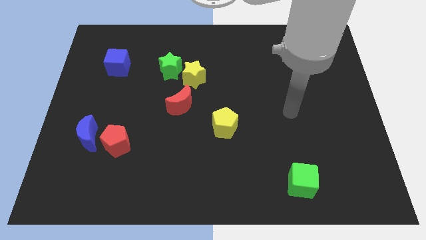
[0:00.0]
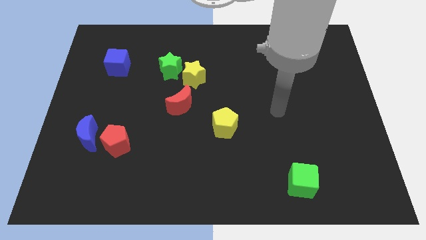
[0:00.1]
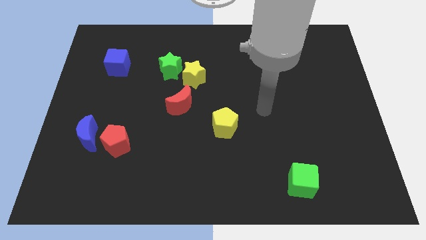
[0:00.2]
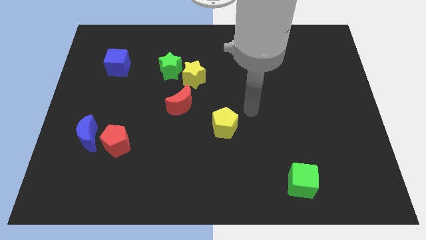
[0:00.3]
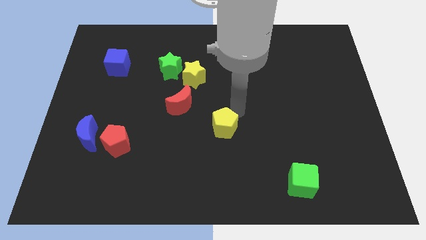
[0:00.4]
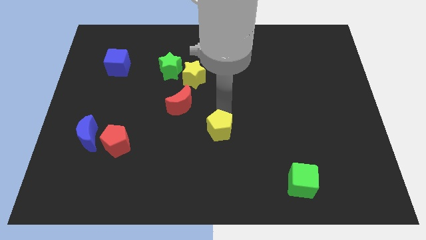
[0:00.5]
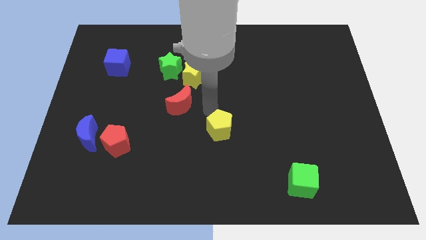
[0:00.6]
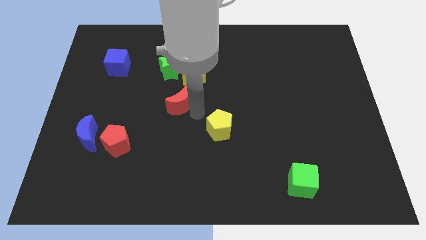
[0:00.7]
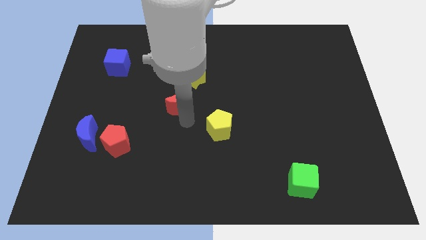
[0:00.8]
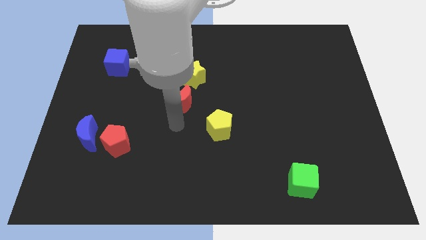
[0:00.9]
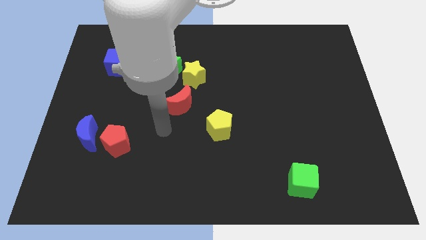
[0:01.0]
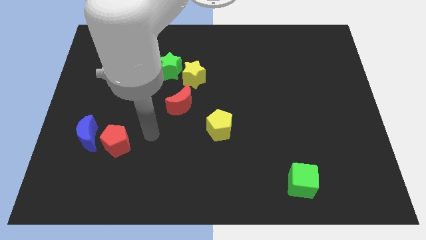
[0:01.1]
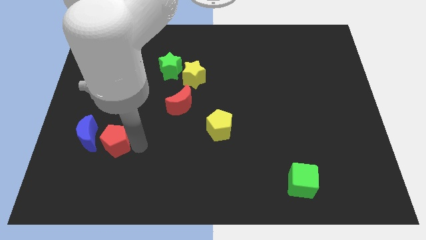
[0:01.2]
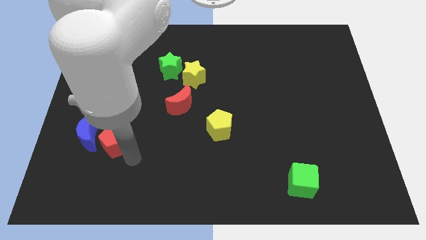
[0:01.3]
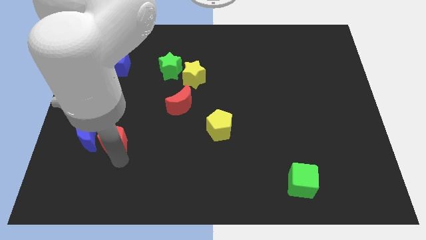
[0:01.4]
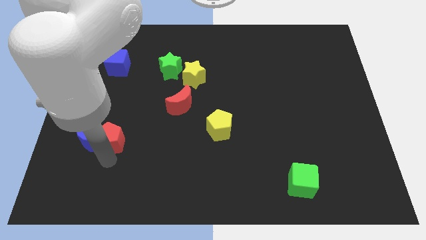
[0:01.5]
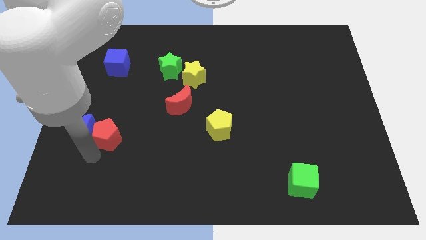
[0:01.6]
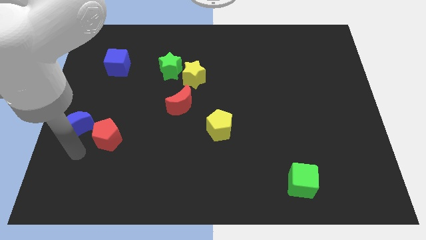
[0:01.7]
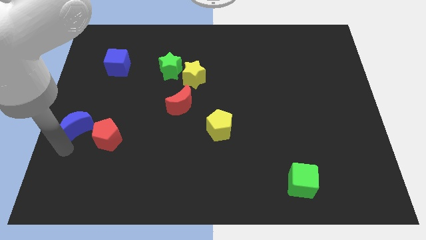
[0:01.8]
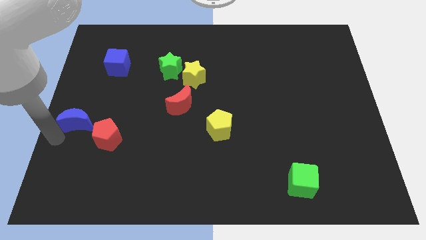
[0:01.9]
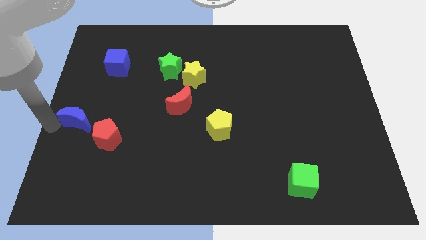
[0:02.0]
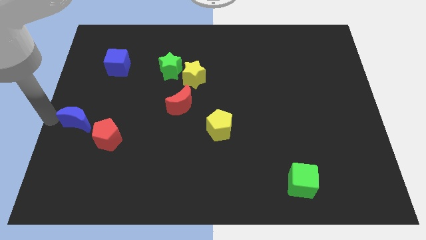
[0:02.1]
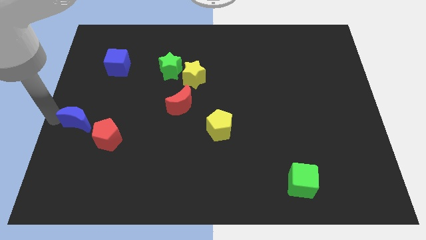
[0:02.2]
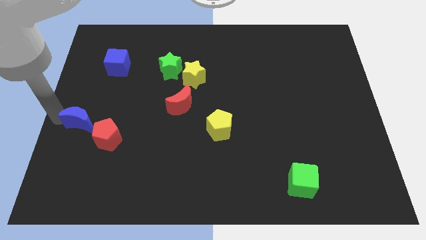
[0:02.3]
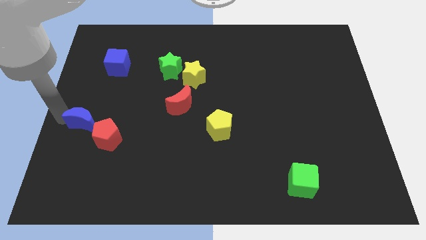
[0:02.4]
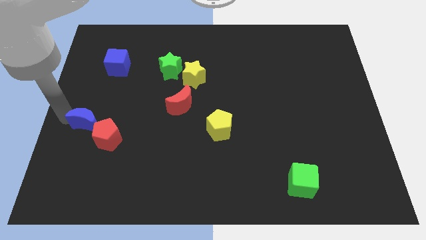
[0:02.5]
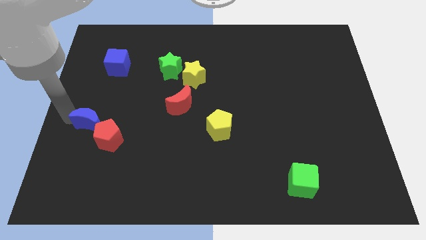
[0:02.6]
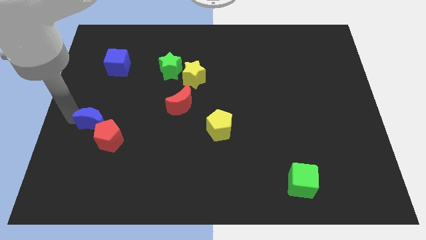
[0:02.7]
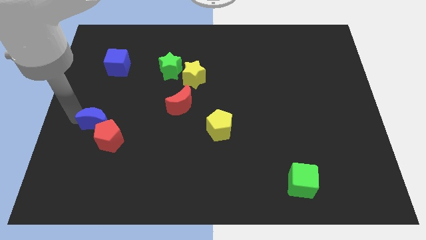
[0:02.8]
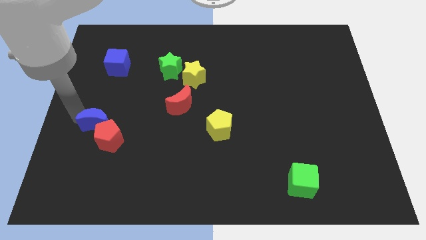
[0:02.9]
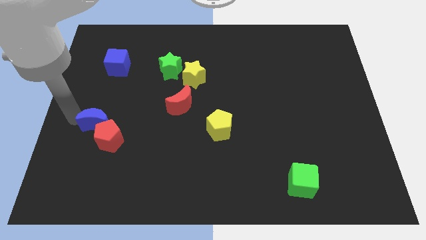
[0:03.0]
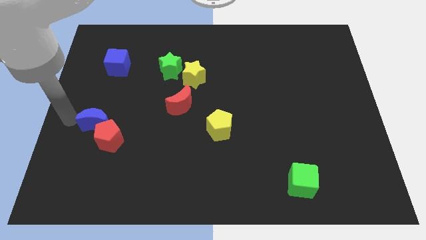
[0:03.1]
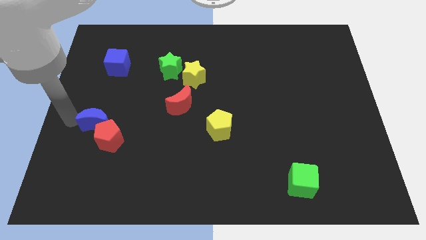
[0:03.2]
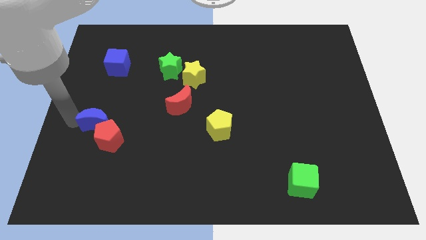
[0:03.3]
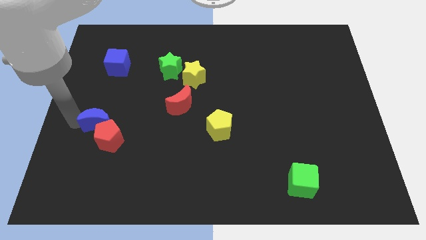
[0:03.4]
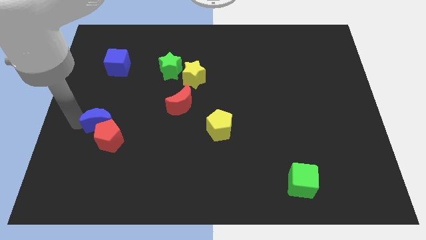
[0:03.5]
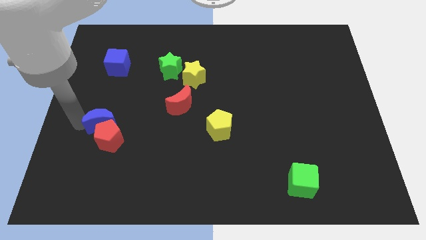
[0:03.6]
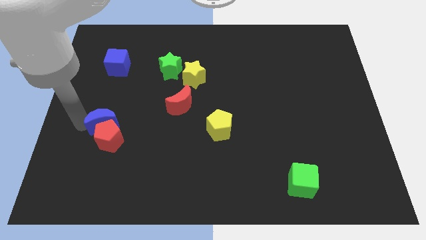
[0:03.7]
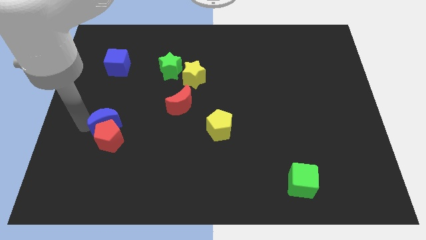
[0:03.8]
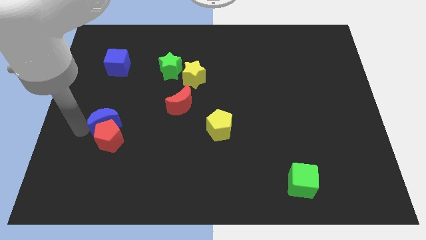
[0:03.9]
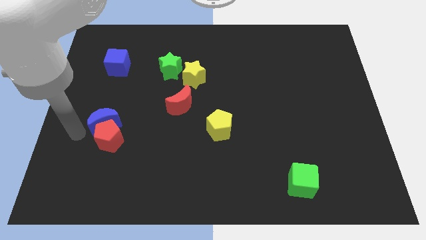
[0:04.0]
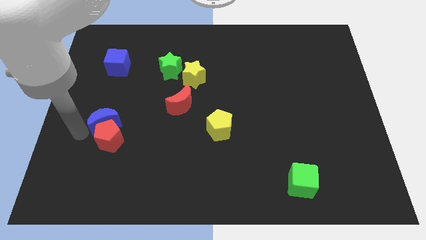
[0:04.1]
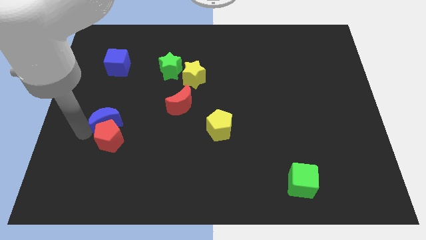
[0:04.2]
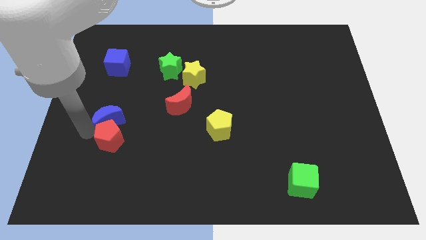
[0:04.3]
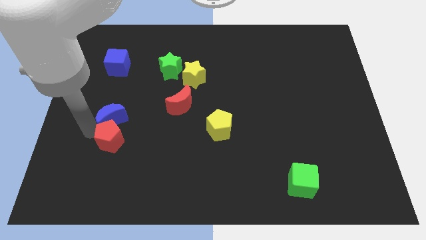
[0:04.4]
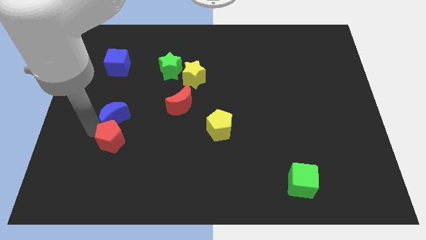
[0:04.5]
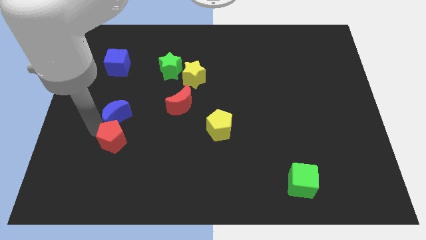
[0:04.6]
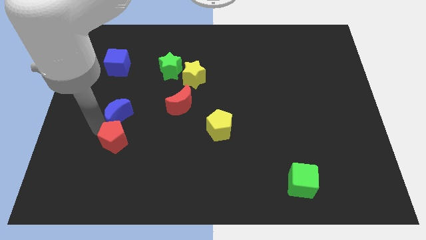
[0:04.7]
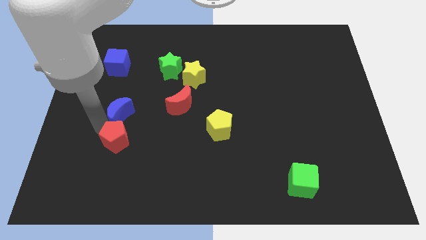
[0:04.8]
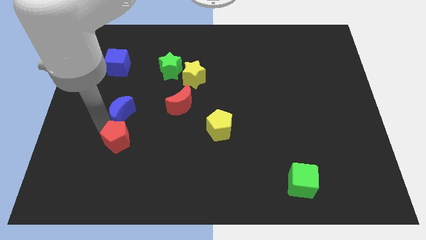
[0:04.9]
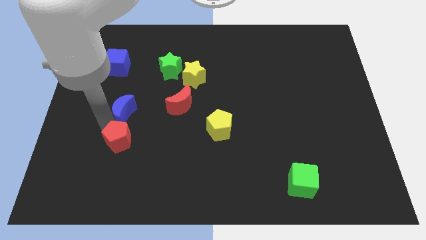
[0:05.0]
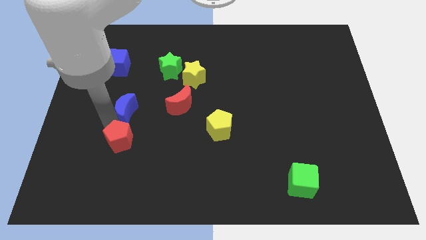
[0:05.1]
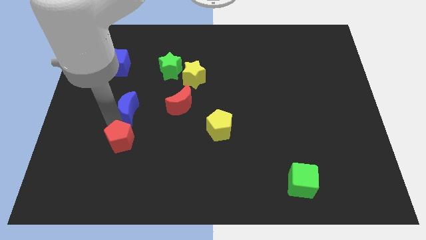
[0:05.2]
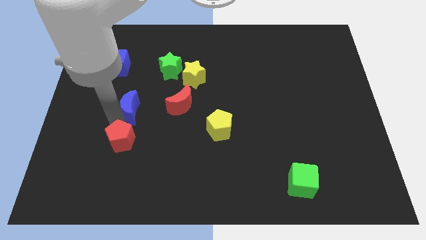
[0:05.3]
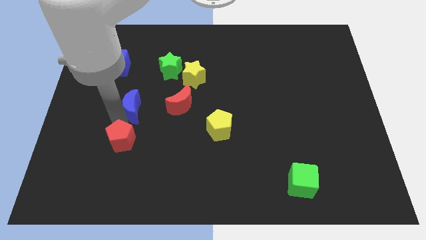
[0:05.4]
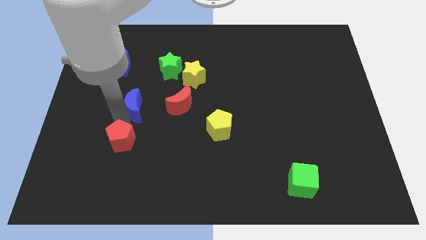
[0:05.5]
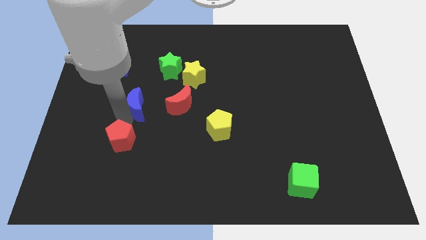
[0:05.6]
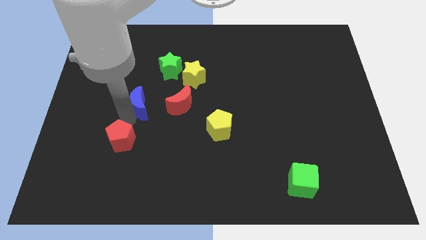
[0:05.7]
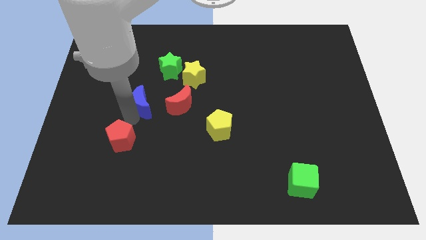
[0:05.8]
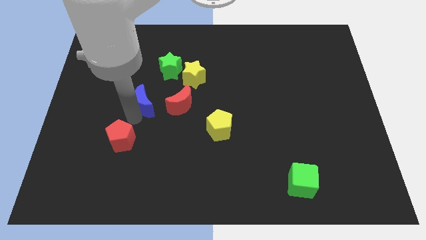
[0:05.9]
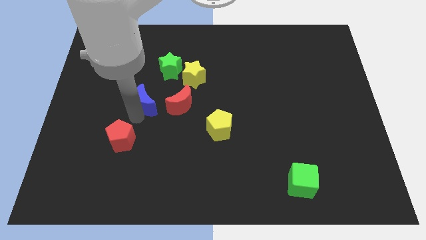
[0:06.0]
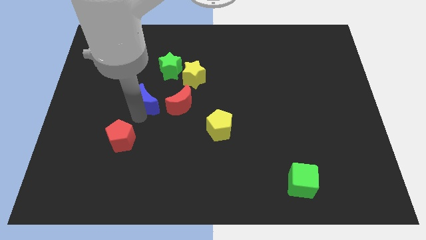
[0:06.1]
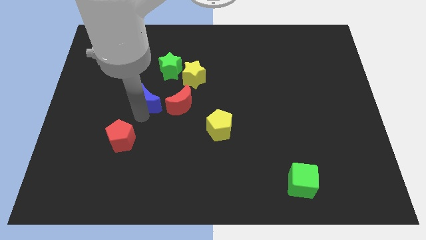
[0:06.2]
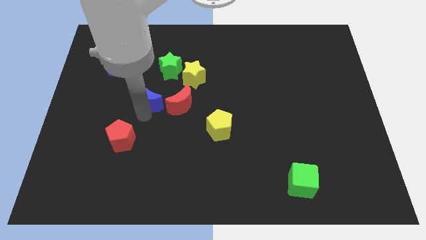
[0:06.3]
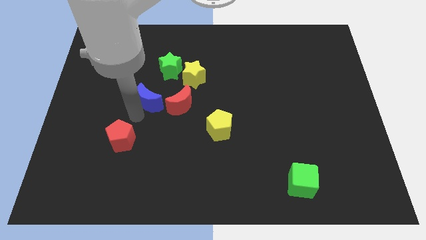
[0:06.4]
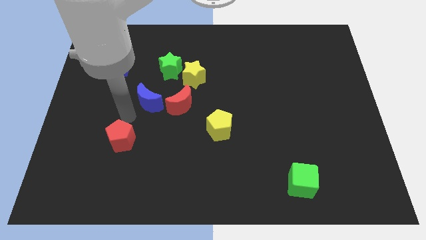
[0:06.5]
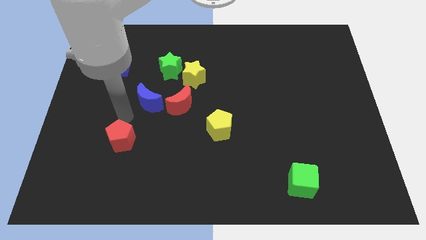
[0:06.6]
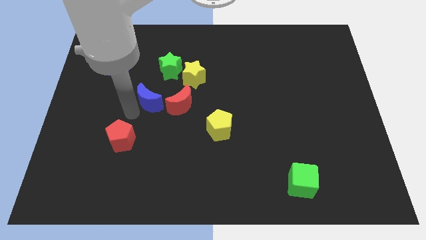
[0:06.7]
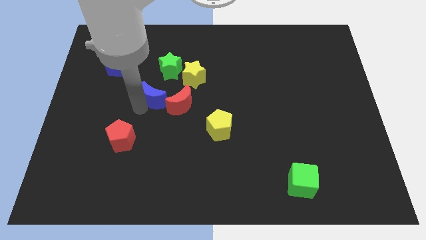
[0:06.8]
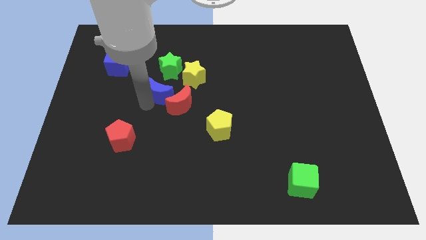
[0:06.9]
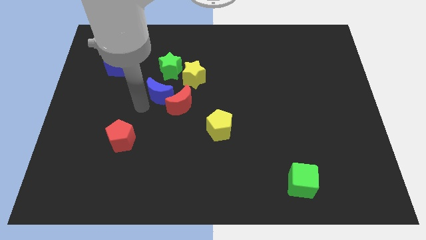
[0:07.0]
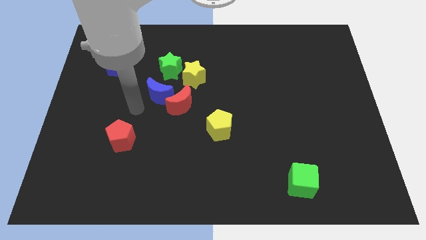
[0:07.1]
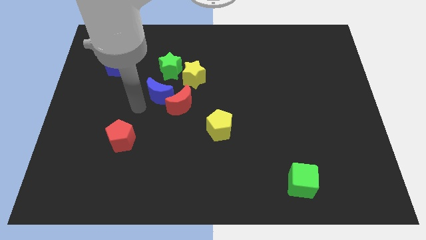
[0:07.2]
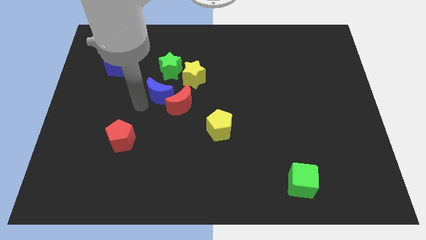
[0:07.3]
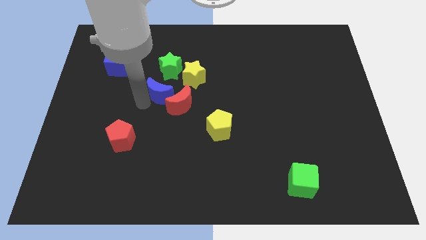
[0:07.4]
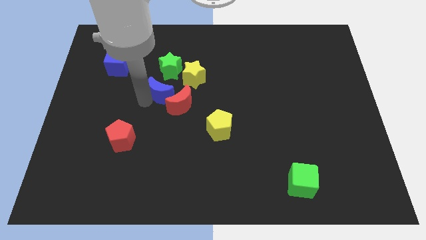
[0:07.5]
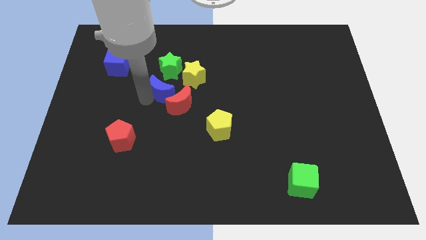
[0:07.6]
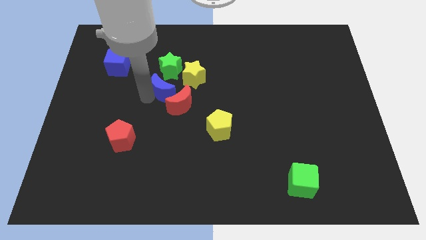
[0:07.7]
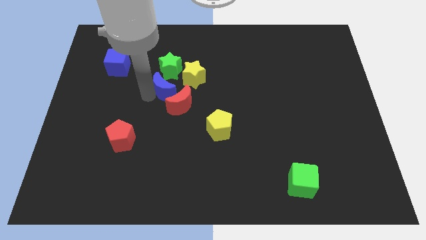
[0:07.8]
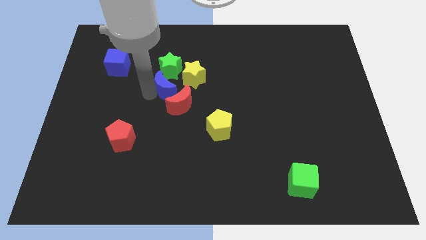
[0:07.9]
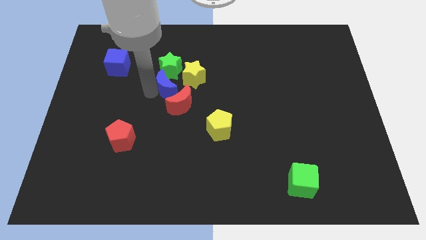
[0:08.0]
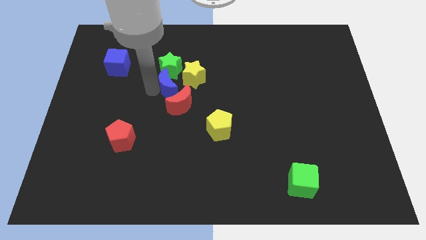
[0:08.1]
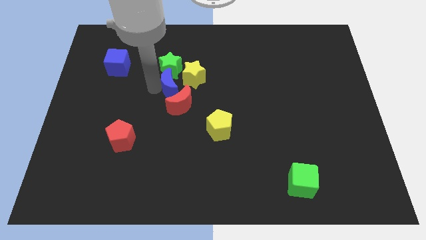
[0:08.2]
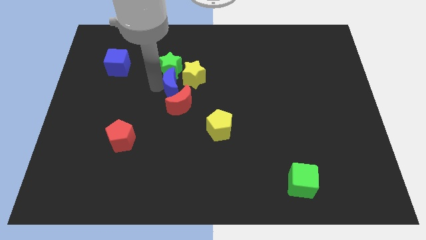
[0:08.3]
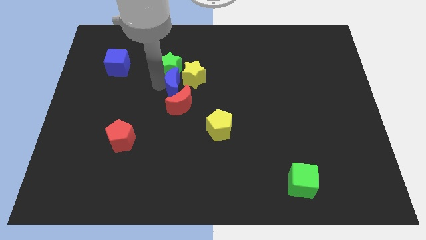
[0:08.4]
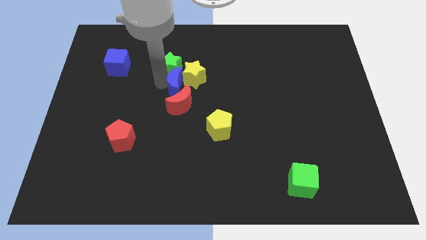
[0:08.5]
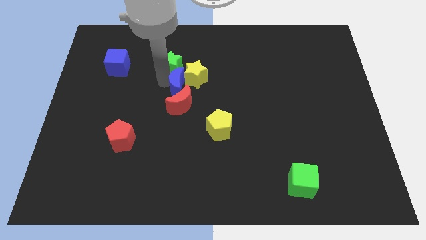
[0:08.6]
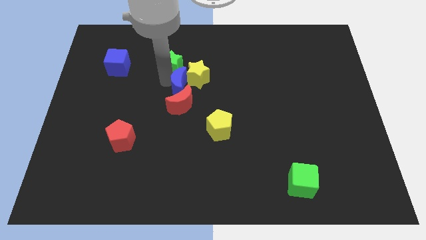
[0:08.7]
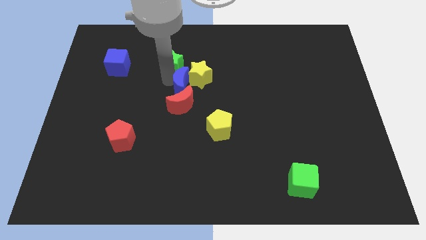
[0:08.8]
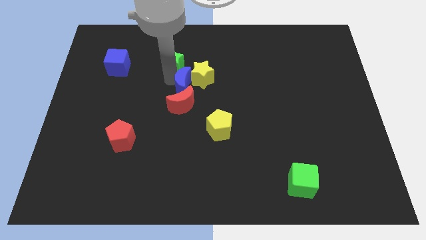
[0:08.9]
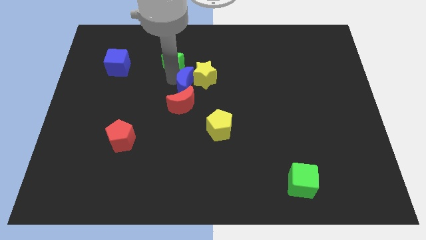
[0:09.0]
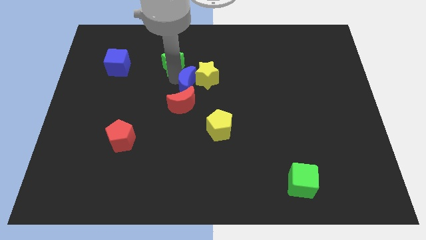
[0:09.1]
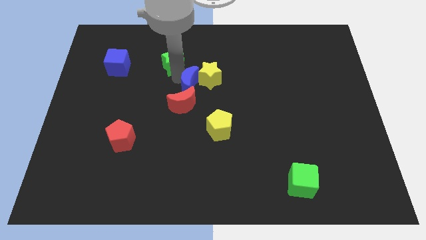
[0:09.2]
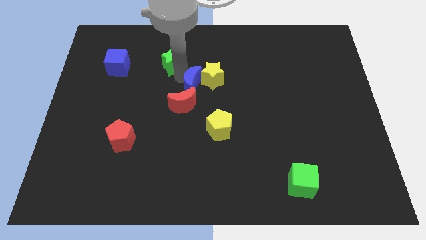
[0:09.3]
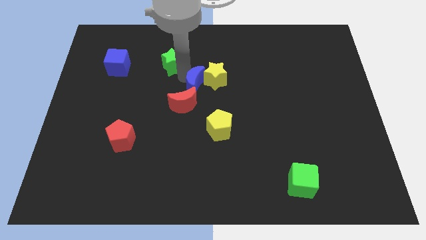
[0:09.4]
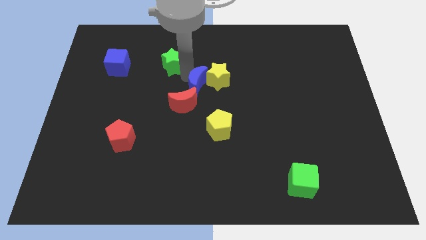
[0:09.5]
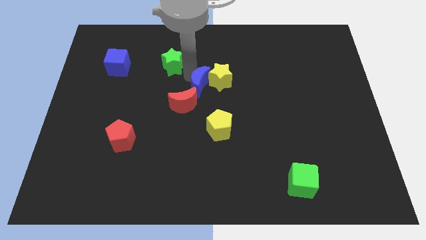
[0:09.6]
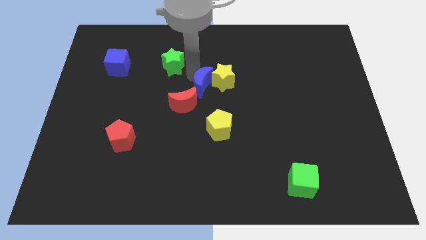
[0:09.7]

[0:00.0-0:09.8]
put the blue moon above the yellow pentagon
